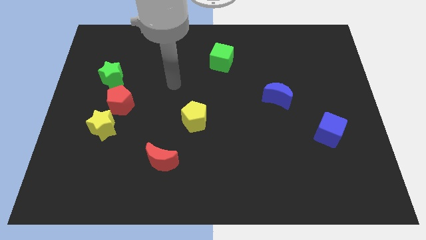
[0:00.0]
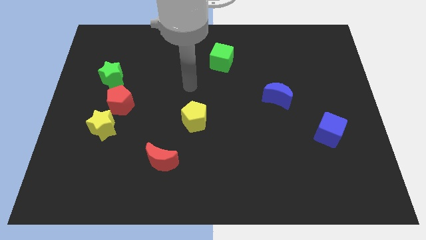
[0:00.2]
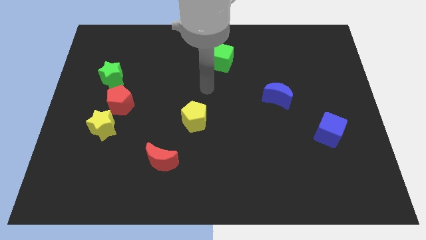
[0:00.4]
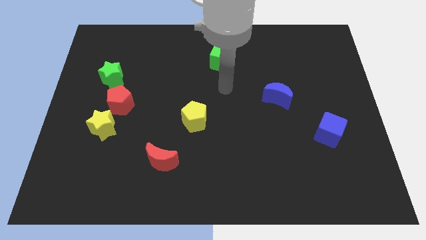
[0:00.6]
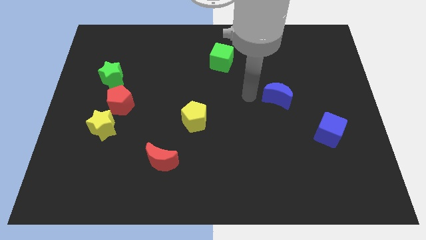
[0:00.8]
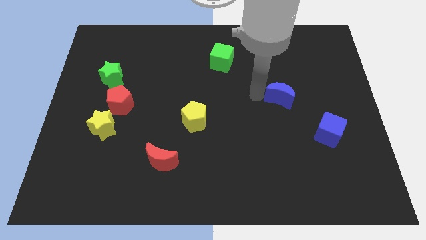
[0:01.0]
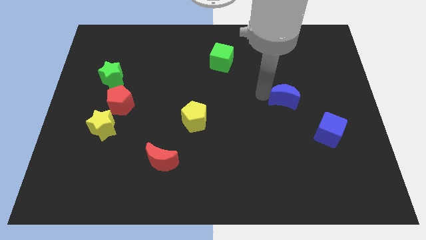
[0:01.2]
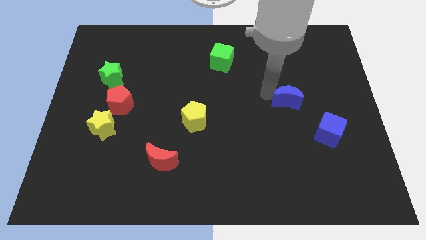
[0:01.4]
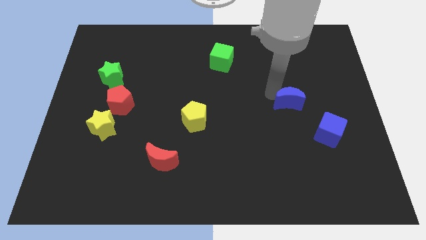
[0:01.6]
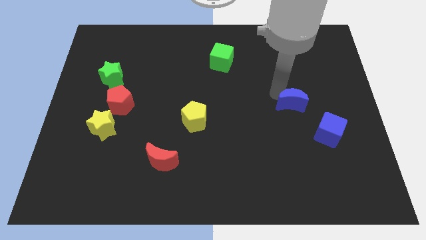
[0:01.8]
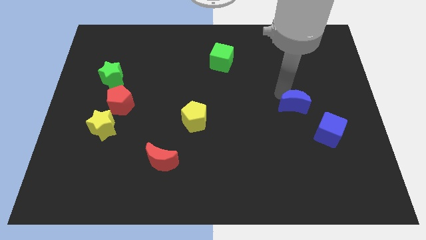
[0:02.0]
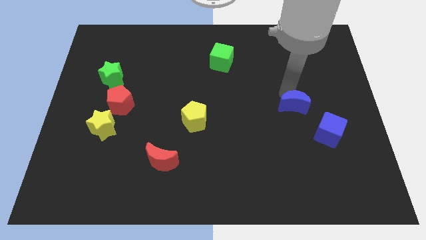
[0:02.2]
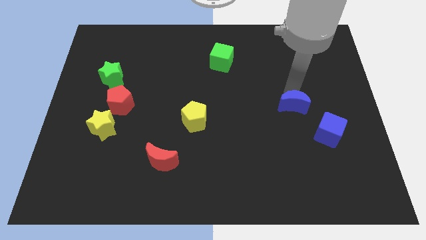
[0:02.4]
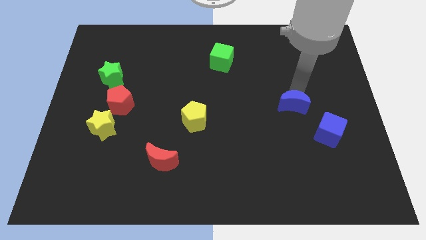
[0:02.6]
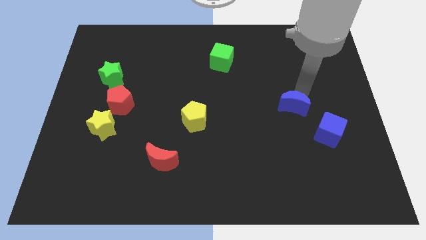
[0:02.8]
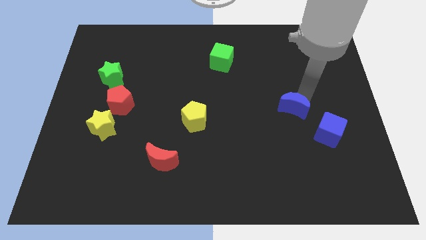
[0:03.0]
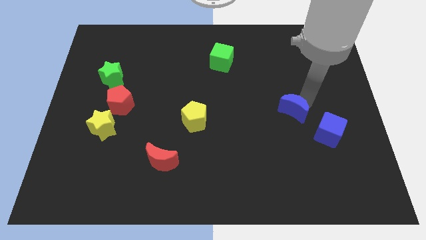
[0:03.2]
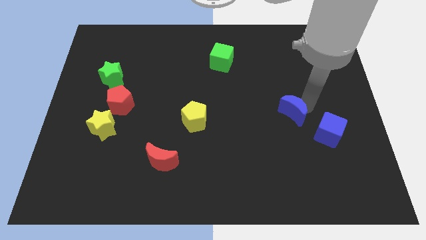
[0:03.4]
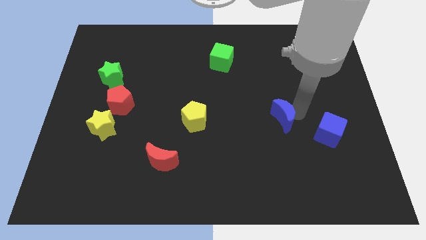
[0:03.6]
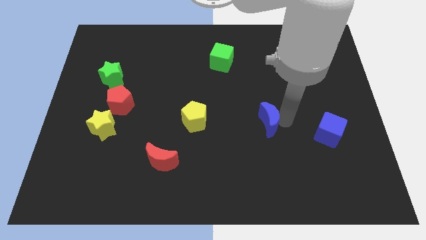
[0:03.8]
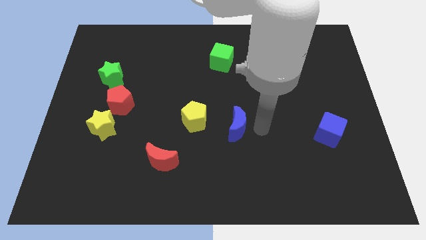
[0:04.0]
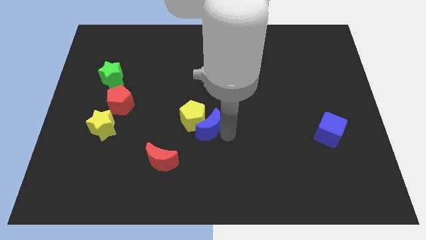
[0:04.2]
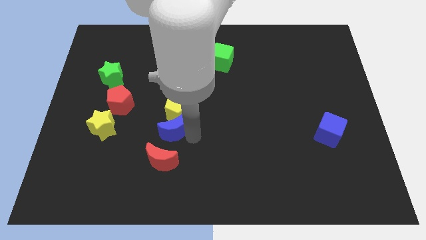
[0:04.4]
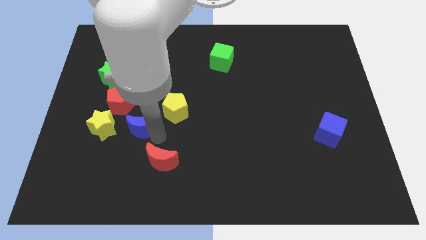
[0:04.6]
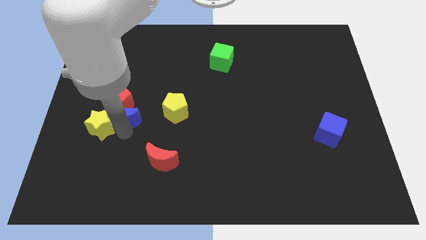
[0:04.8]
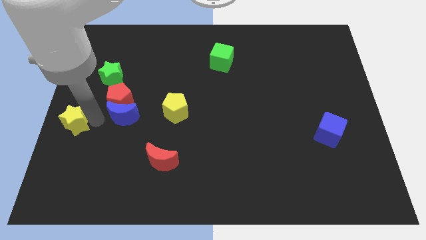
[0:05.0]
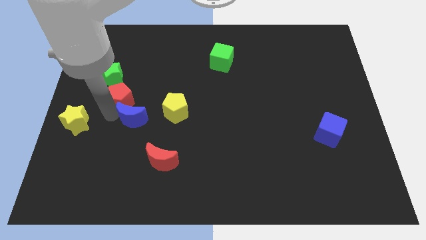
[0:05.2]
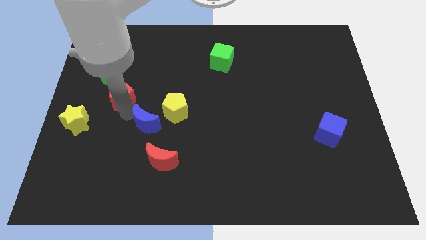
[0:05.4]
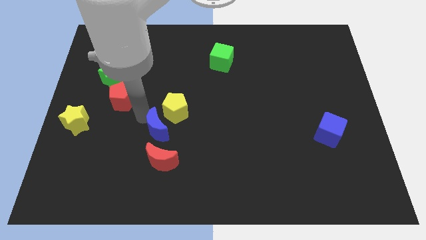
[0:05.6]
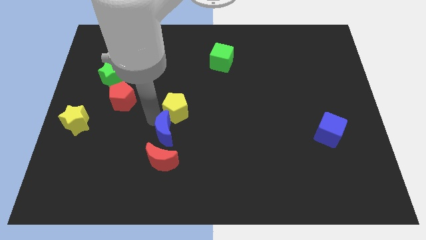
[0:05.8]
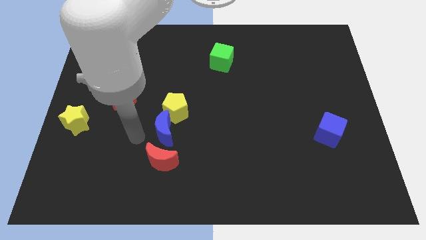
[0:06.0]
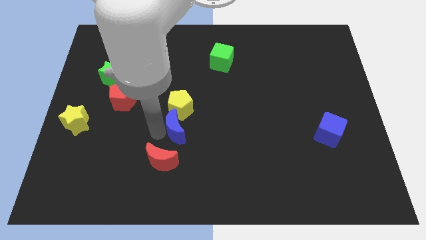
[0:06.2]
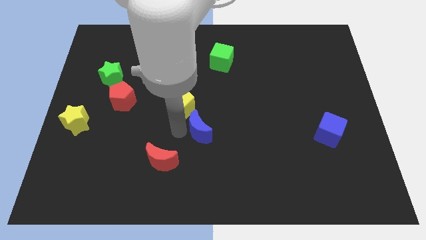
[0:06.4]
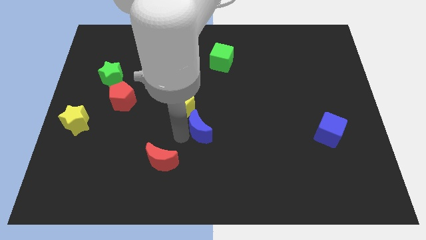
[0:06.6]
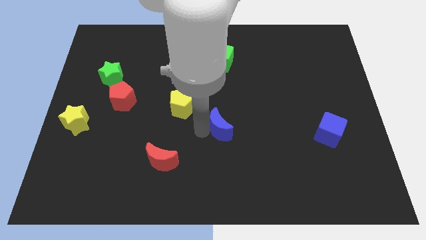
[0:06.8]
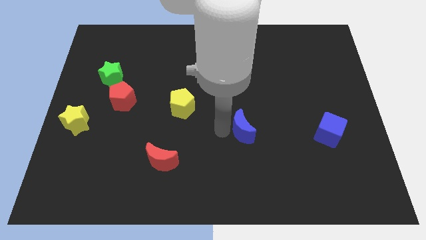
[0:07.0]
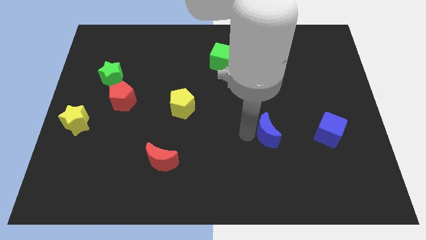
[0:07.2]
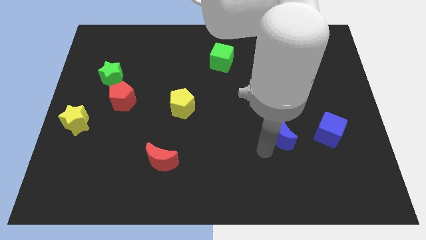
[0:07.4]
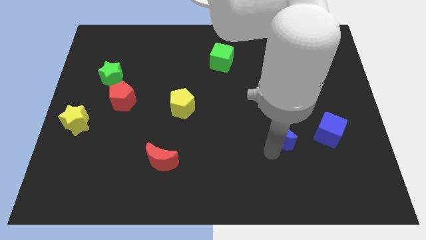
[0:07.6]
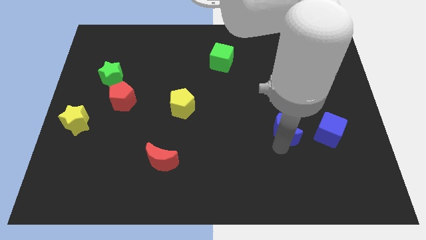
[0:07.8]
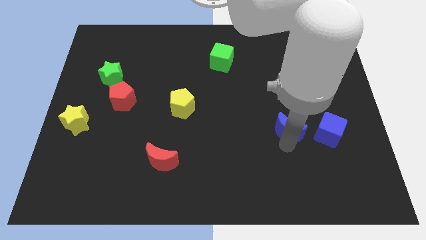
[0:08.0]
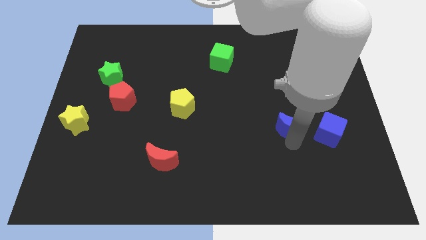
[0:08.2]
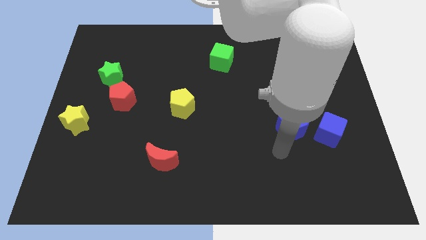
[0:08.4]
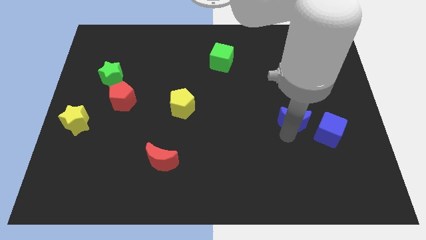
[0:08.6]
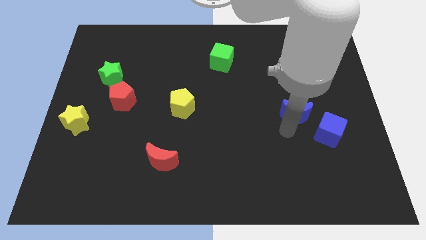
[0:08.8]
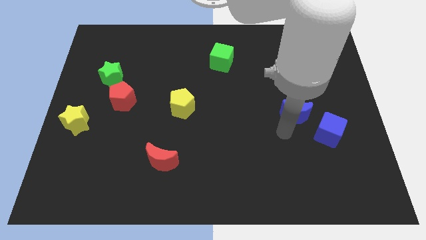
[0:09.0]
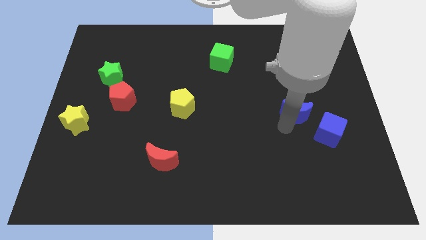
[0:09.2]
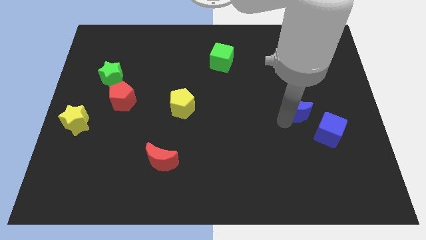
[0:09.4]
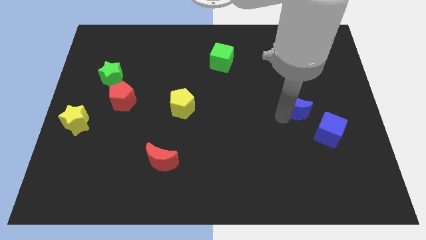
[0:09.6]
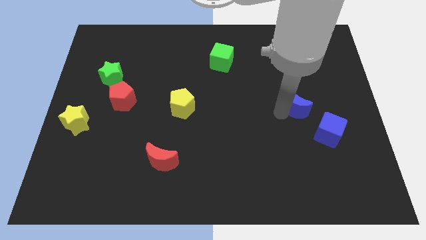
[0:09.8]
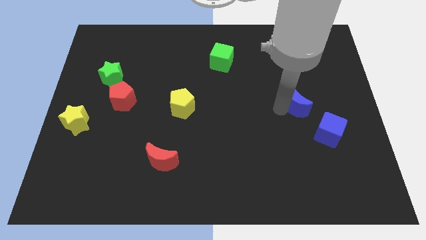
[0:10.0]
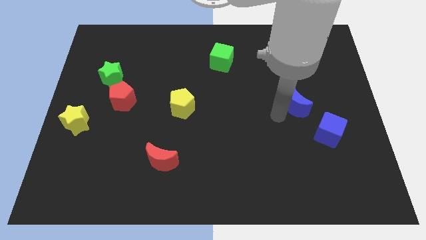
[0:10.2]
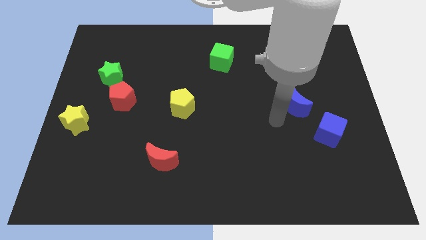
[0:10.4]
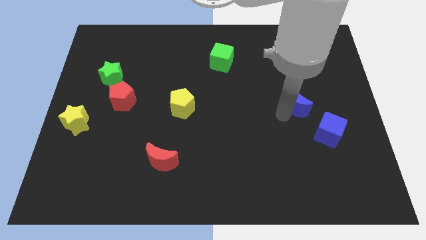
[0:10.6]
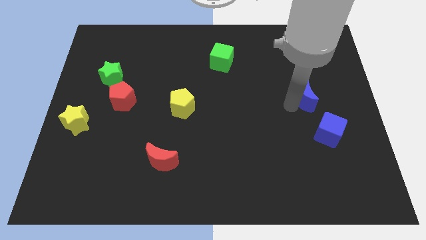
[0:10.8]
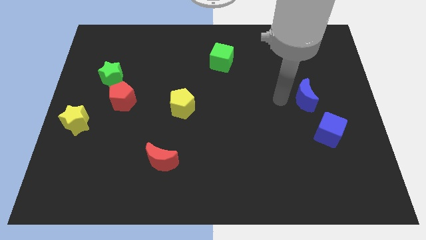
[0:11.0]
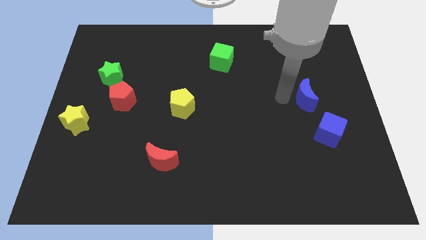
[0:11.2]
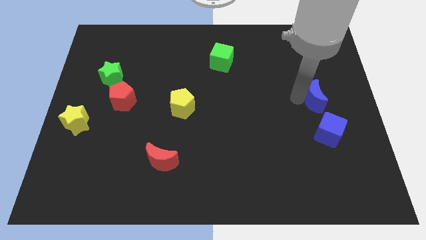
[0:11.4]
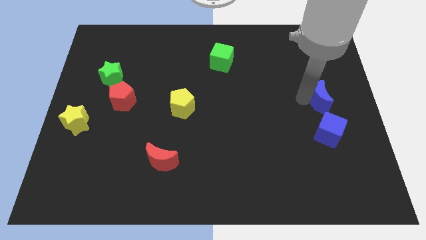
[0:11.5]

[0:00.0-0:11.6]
slide the blue moon to the center right

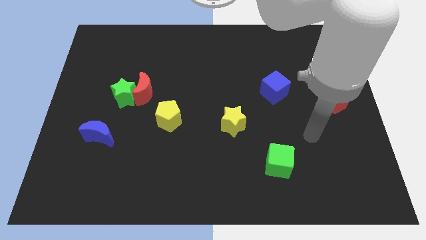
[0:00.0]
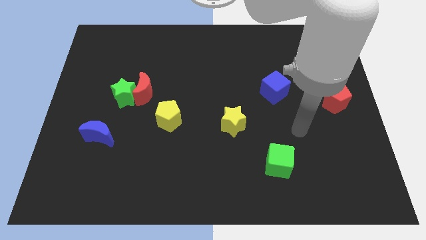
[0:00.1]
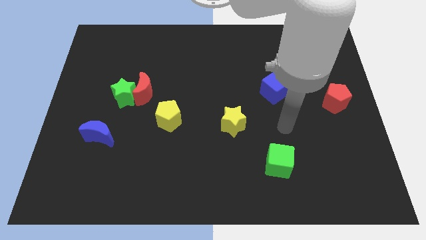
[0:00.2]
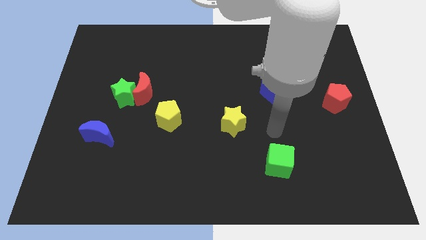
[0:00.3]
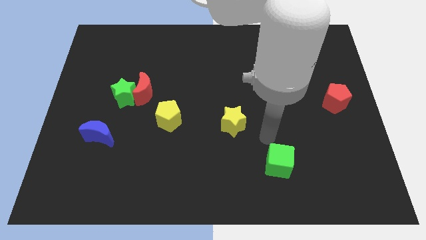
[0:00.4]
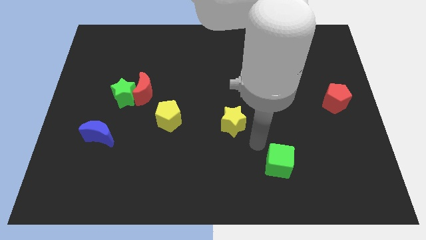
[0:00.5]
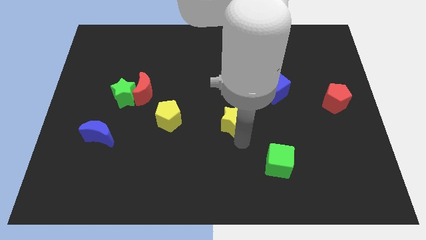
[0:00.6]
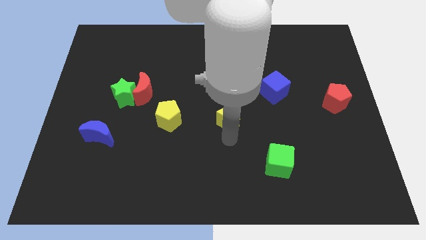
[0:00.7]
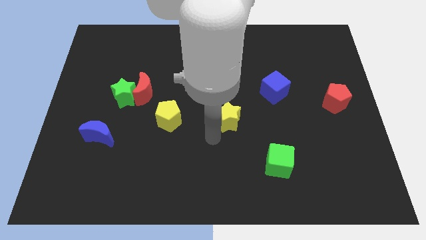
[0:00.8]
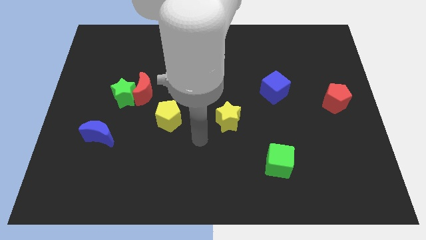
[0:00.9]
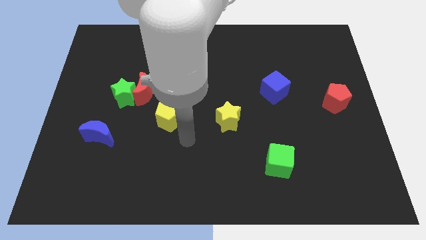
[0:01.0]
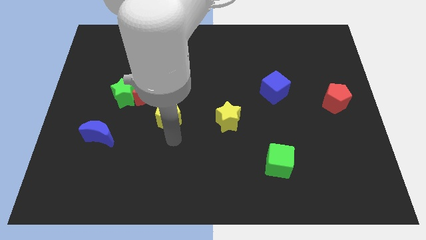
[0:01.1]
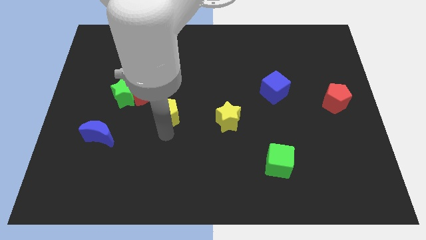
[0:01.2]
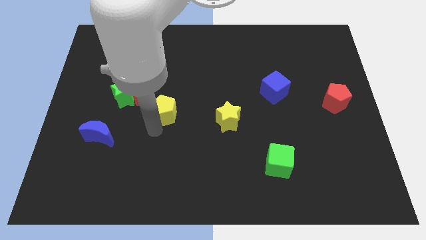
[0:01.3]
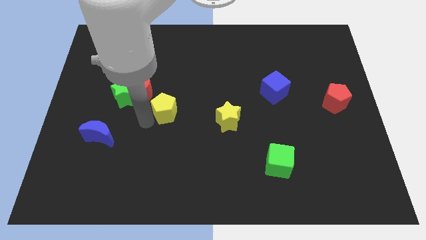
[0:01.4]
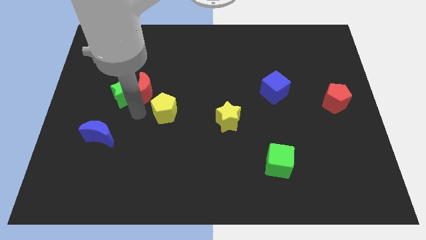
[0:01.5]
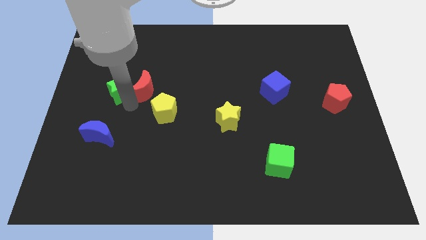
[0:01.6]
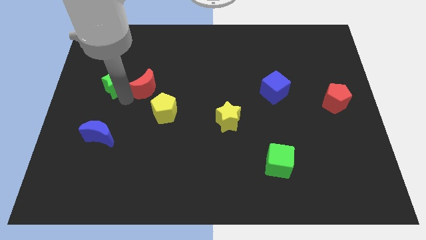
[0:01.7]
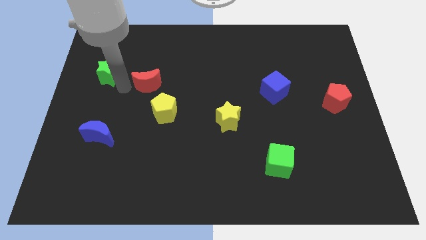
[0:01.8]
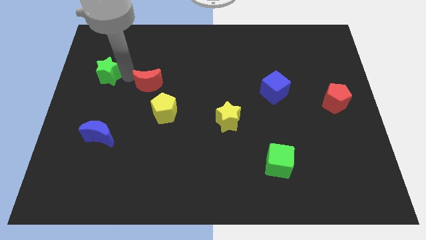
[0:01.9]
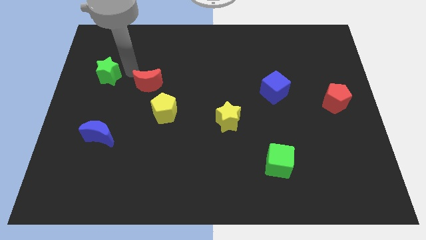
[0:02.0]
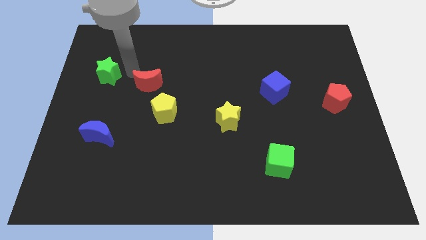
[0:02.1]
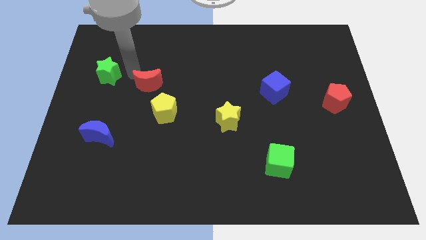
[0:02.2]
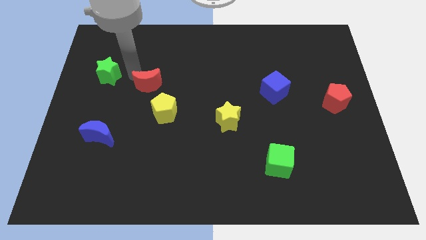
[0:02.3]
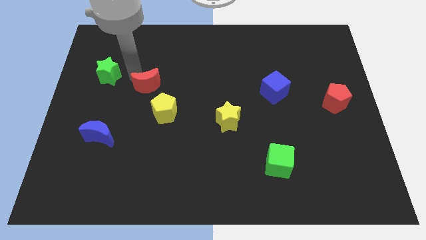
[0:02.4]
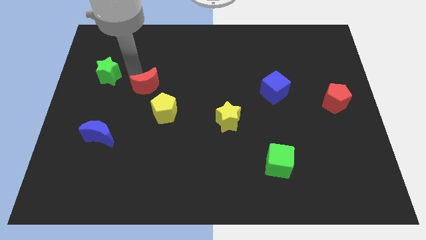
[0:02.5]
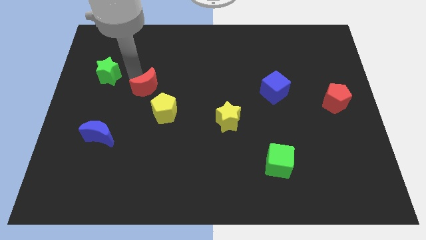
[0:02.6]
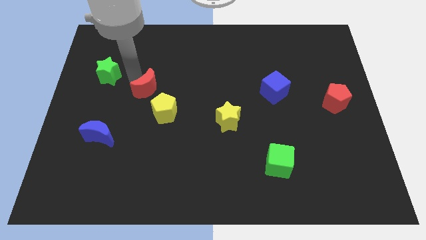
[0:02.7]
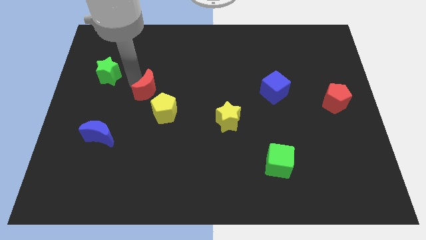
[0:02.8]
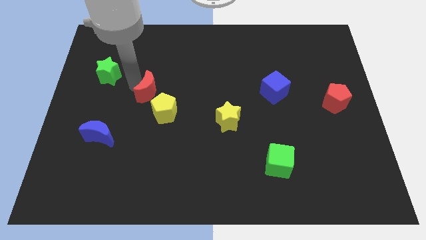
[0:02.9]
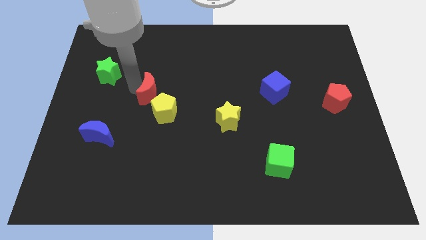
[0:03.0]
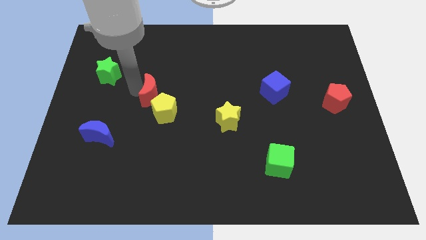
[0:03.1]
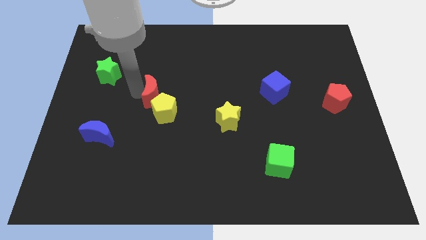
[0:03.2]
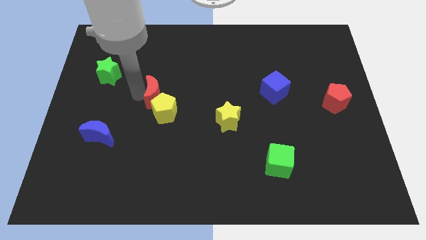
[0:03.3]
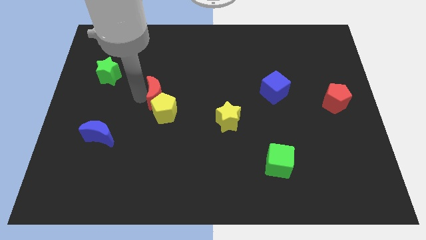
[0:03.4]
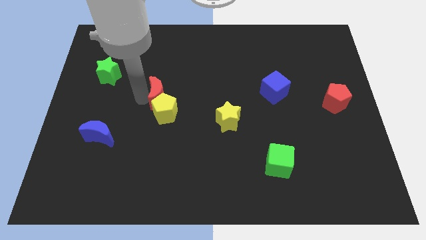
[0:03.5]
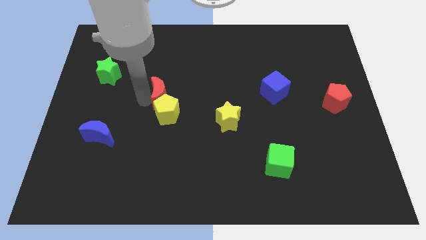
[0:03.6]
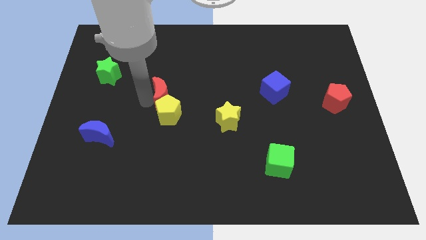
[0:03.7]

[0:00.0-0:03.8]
push the red moon to the middle of the board
